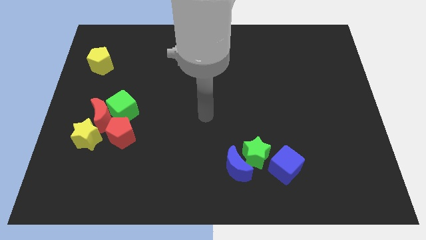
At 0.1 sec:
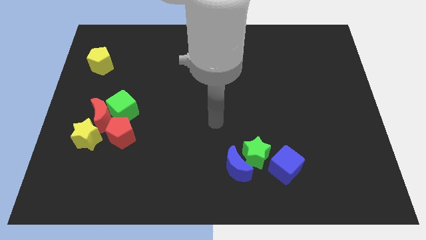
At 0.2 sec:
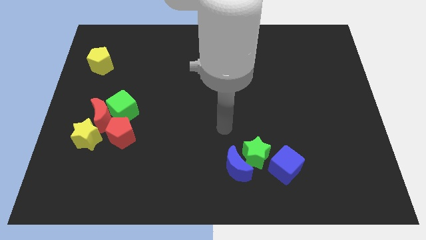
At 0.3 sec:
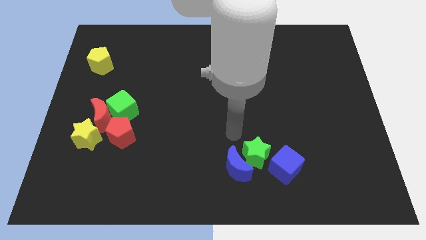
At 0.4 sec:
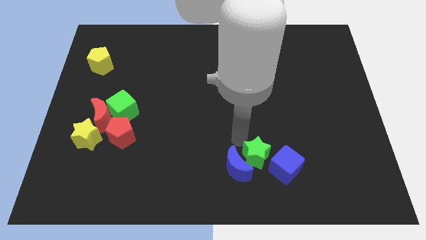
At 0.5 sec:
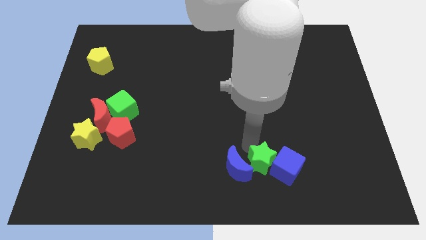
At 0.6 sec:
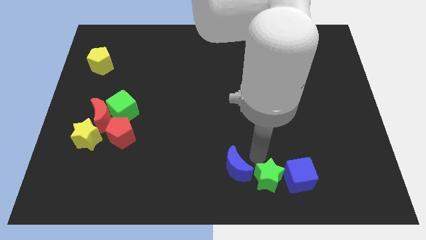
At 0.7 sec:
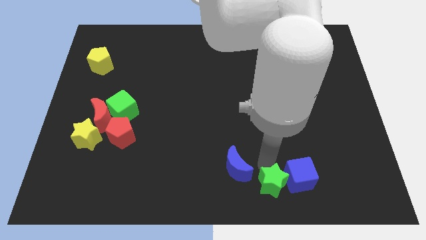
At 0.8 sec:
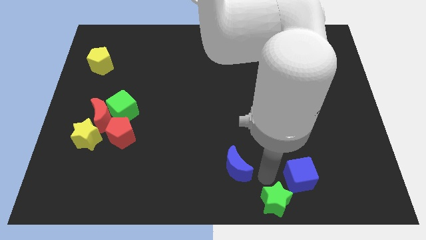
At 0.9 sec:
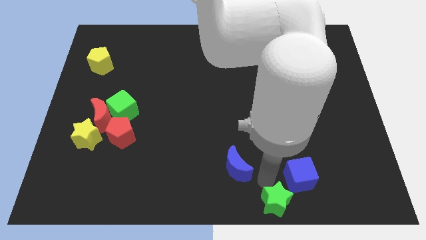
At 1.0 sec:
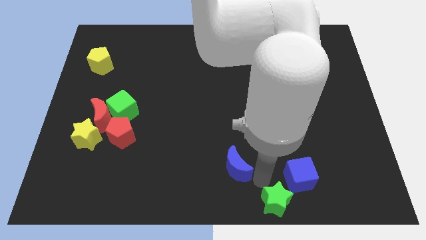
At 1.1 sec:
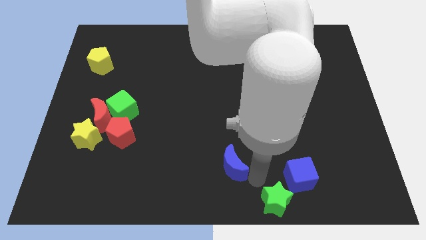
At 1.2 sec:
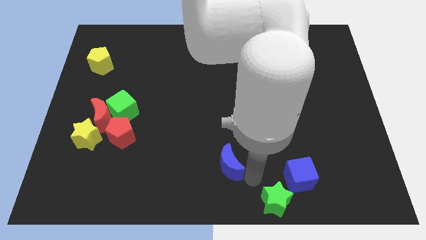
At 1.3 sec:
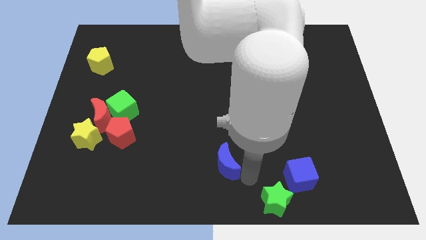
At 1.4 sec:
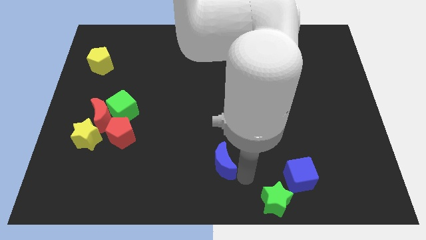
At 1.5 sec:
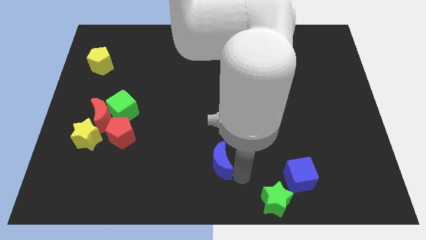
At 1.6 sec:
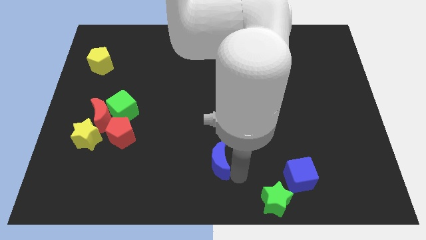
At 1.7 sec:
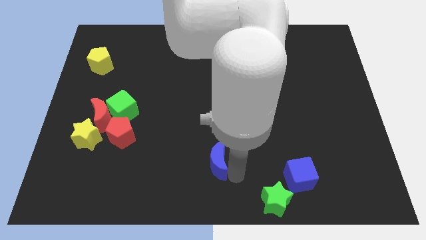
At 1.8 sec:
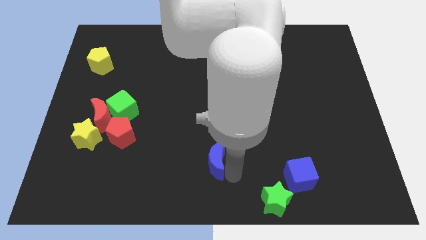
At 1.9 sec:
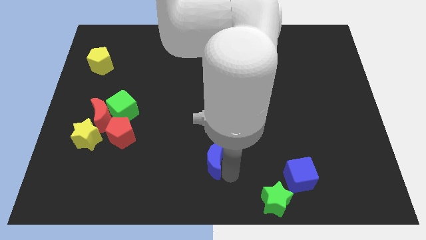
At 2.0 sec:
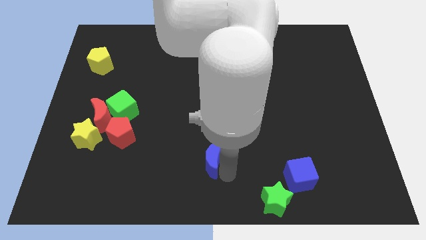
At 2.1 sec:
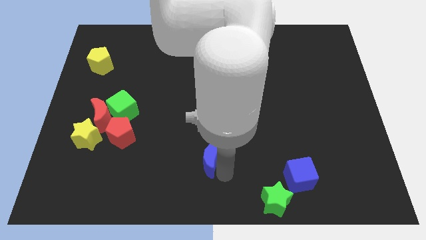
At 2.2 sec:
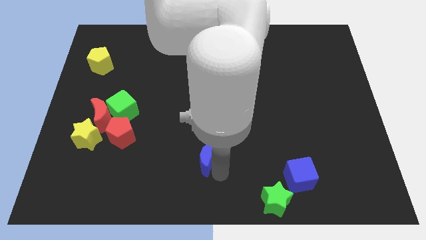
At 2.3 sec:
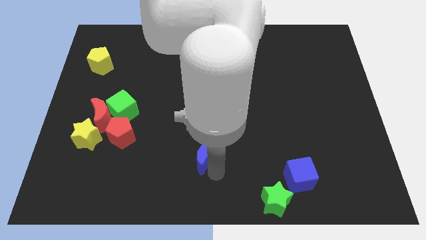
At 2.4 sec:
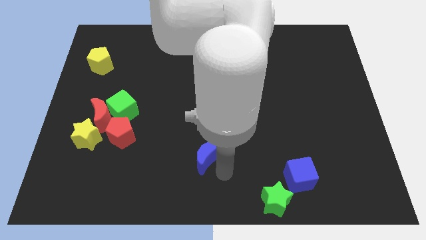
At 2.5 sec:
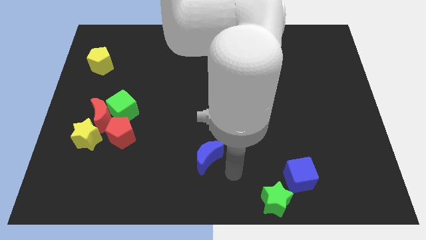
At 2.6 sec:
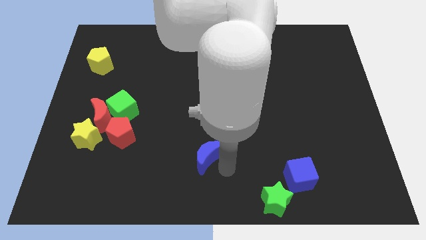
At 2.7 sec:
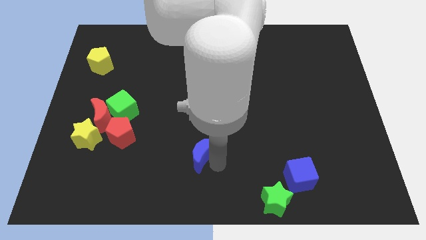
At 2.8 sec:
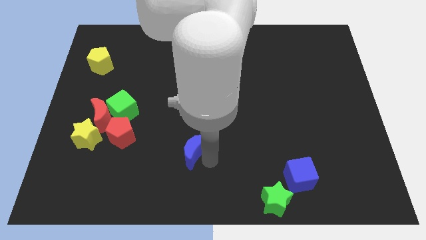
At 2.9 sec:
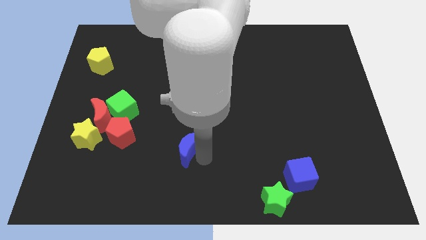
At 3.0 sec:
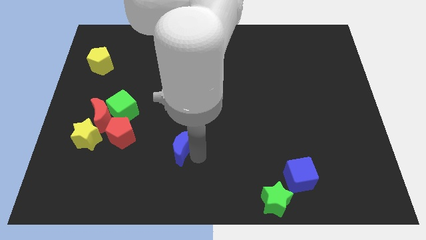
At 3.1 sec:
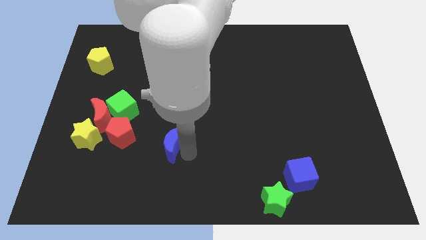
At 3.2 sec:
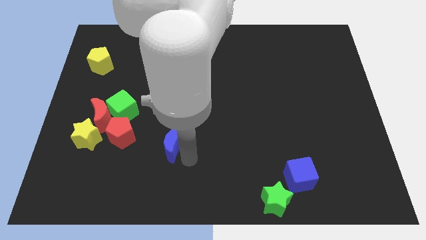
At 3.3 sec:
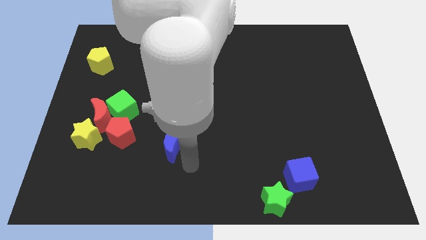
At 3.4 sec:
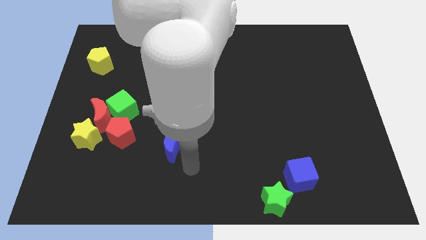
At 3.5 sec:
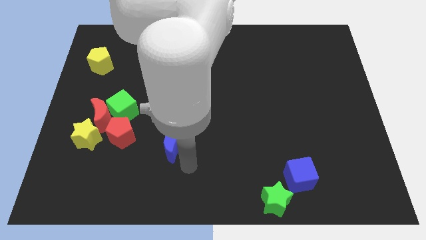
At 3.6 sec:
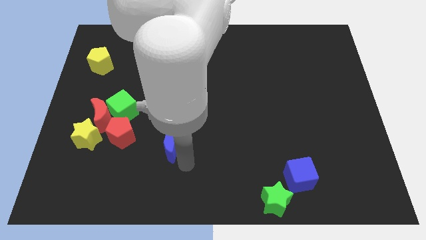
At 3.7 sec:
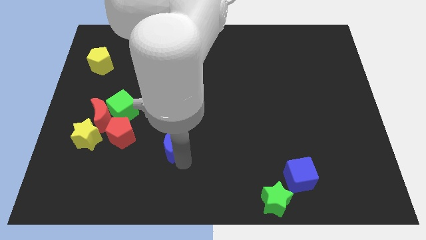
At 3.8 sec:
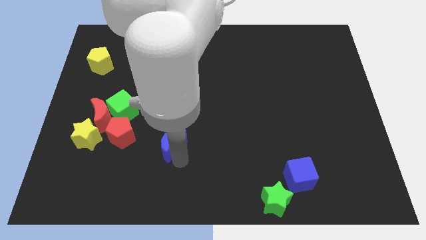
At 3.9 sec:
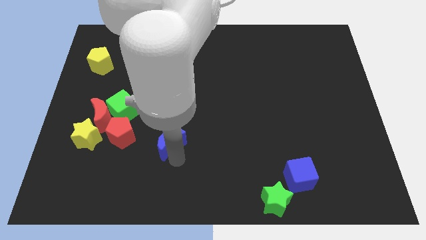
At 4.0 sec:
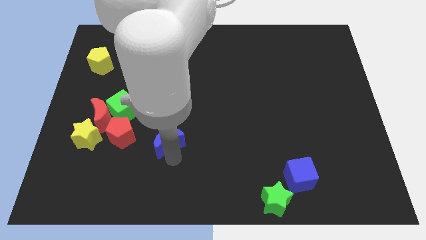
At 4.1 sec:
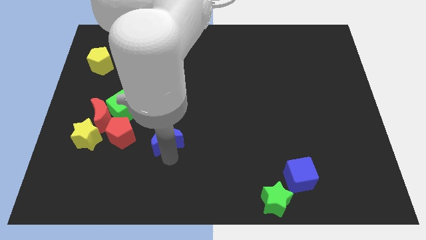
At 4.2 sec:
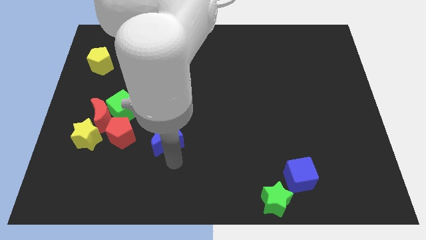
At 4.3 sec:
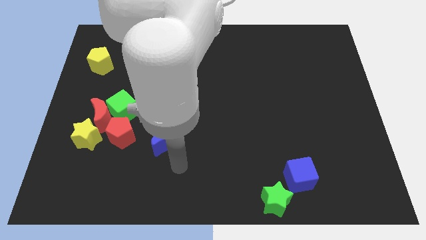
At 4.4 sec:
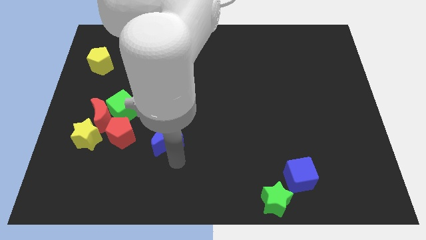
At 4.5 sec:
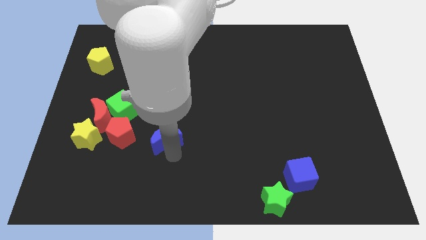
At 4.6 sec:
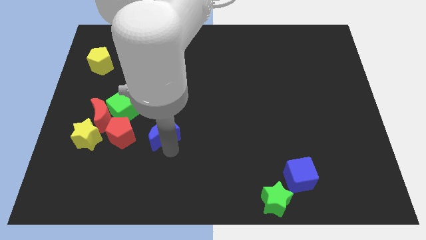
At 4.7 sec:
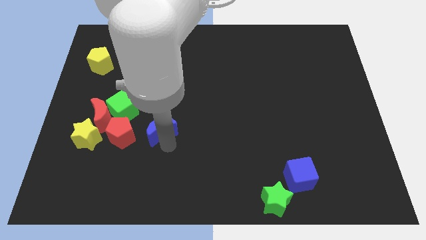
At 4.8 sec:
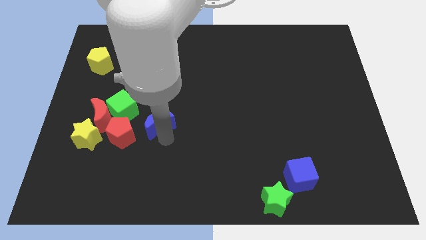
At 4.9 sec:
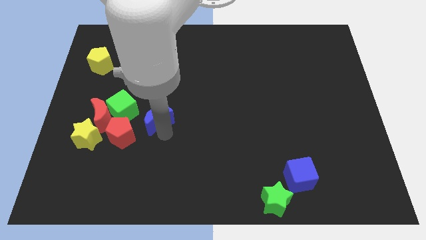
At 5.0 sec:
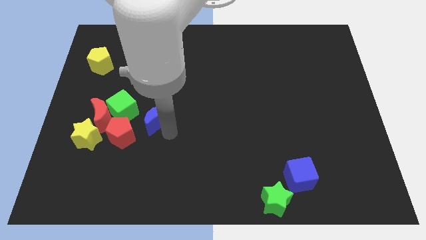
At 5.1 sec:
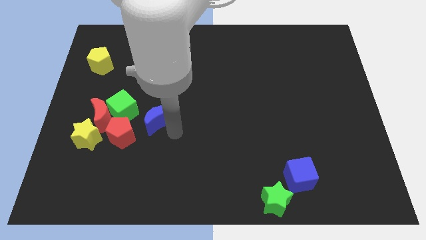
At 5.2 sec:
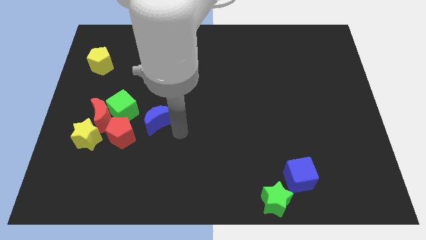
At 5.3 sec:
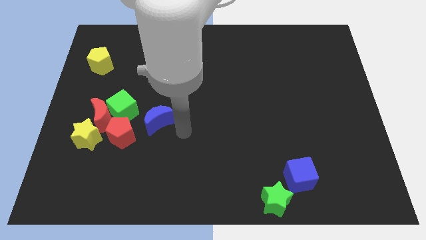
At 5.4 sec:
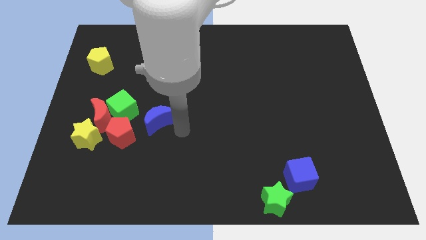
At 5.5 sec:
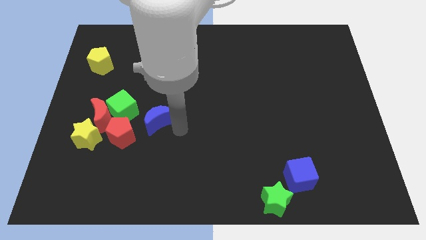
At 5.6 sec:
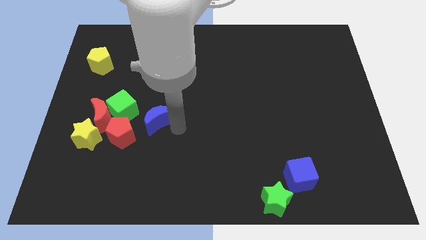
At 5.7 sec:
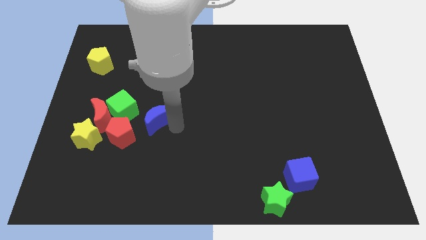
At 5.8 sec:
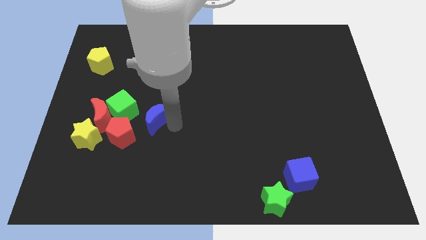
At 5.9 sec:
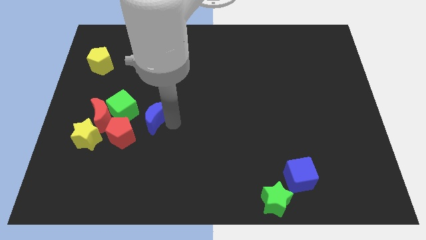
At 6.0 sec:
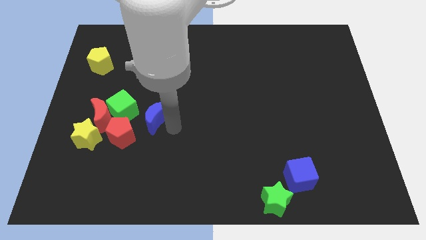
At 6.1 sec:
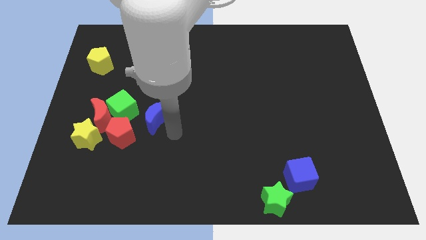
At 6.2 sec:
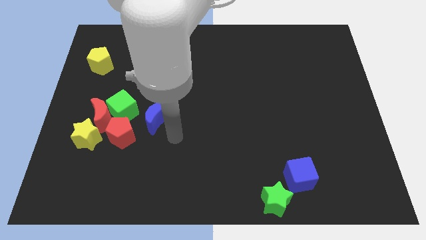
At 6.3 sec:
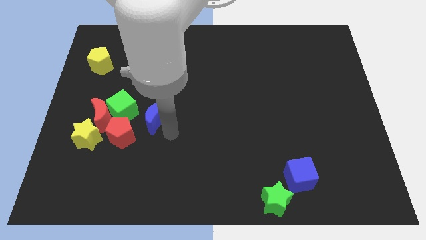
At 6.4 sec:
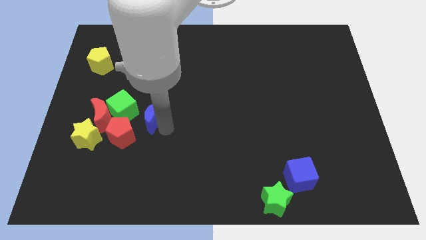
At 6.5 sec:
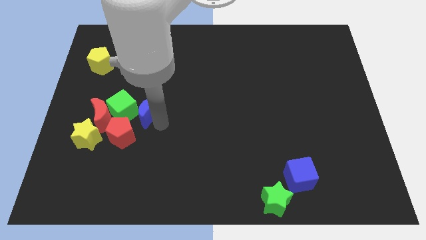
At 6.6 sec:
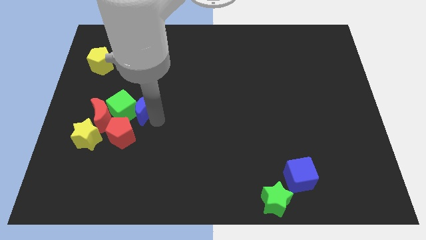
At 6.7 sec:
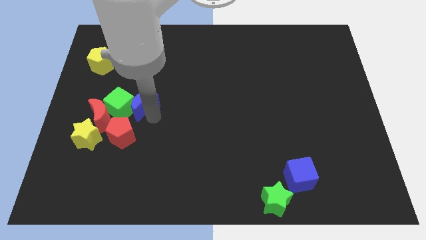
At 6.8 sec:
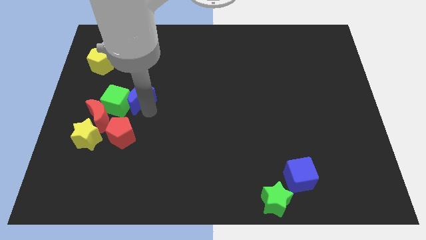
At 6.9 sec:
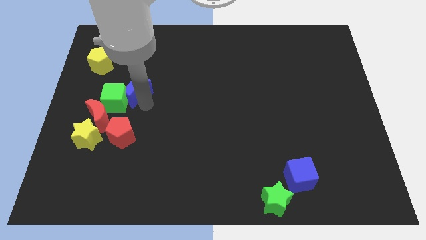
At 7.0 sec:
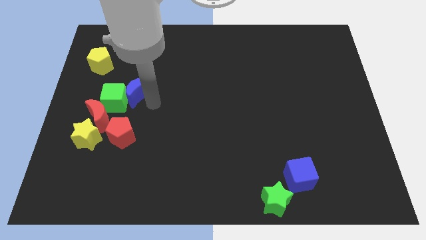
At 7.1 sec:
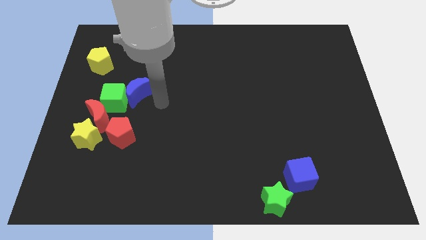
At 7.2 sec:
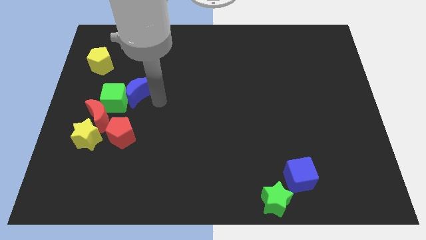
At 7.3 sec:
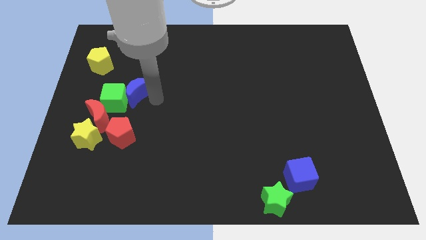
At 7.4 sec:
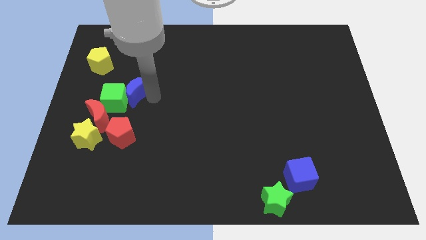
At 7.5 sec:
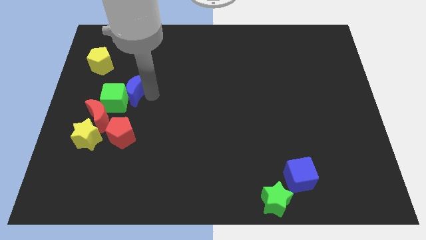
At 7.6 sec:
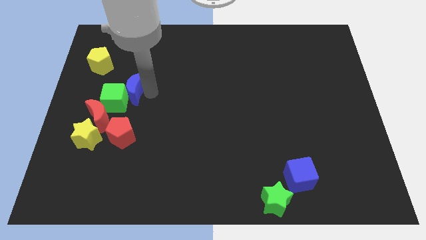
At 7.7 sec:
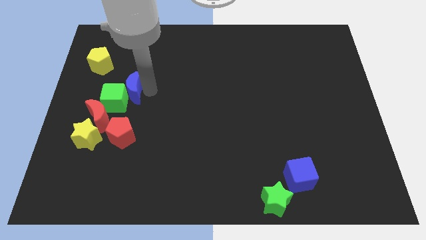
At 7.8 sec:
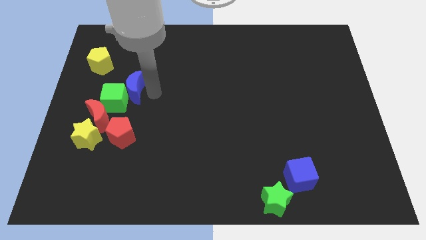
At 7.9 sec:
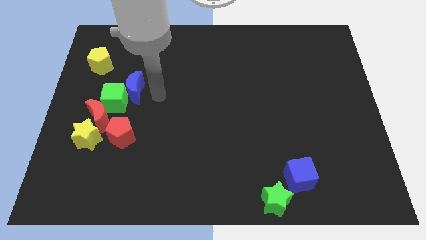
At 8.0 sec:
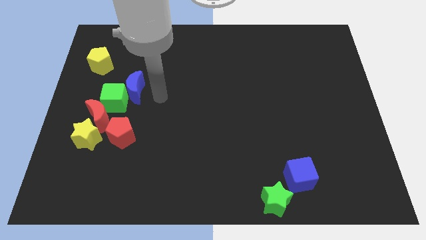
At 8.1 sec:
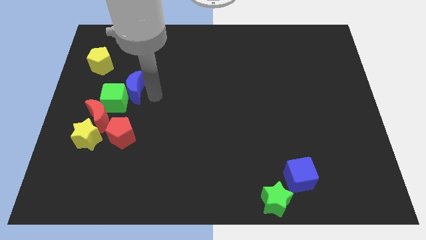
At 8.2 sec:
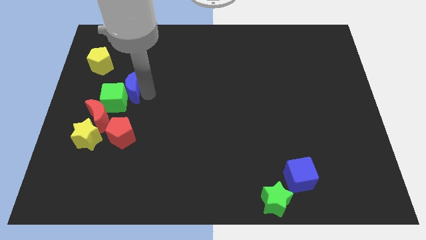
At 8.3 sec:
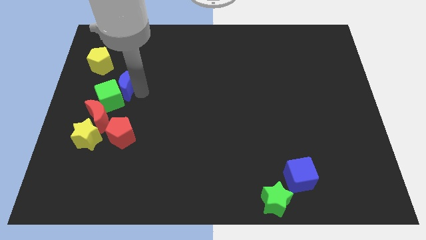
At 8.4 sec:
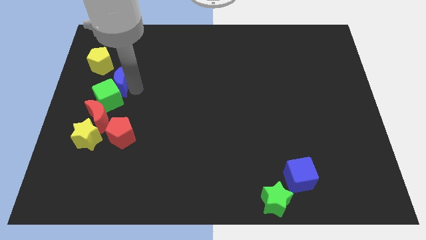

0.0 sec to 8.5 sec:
slide the blue moon to the top of the red moon
